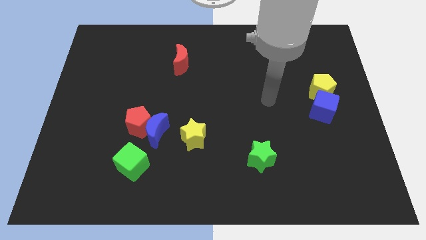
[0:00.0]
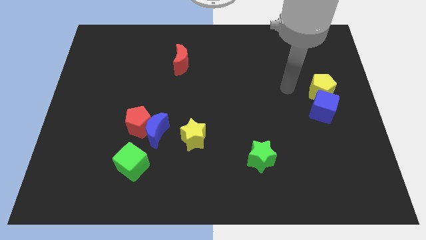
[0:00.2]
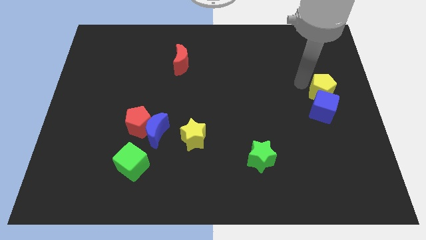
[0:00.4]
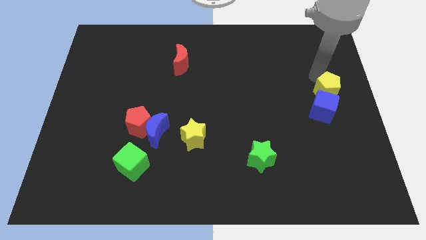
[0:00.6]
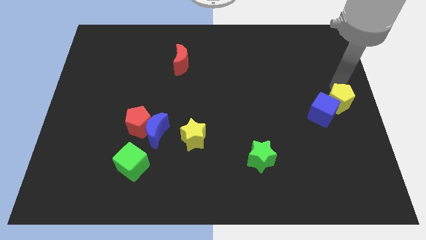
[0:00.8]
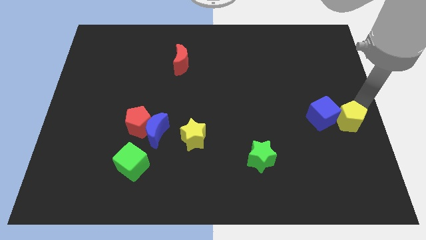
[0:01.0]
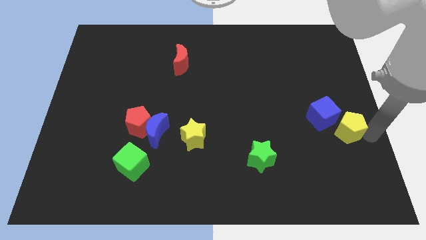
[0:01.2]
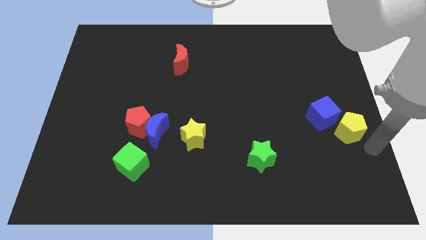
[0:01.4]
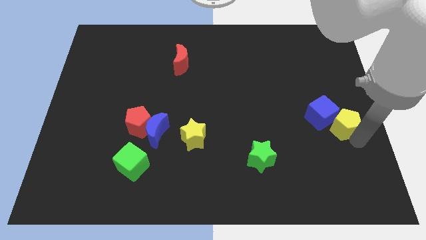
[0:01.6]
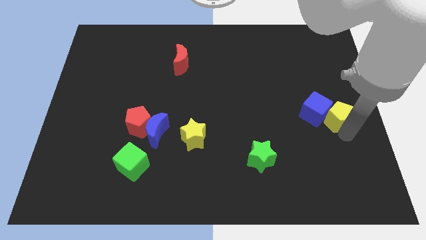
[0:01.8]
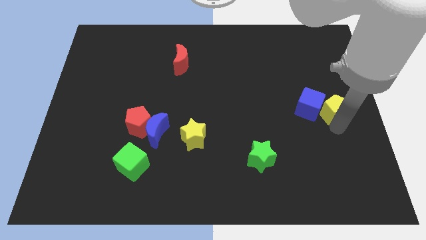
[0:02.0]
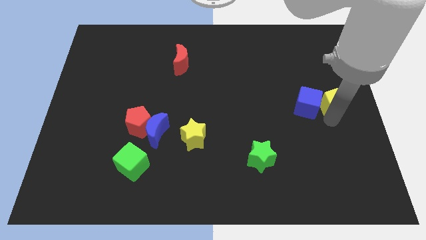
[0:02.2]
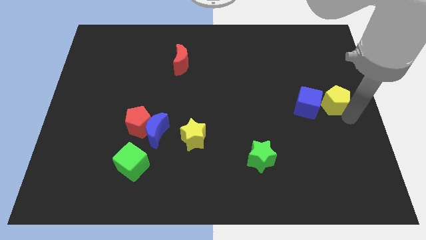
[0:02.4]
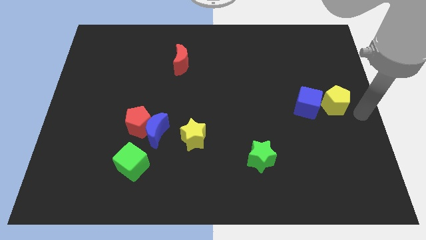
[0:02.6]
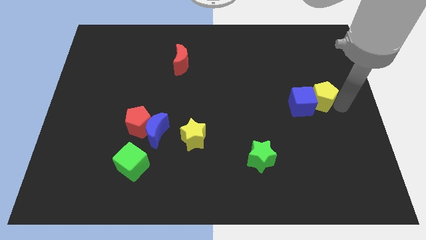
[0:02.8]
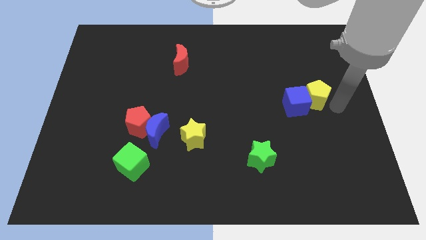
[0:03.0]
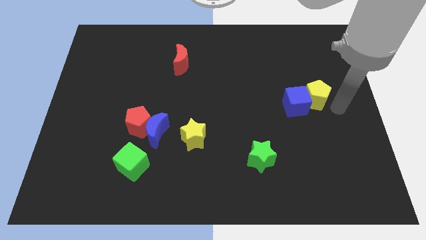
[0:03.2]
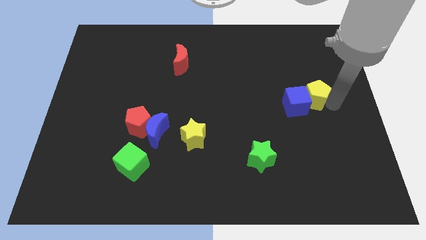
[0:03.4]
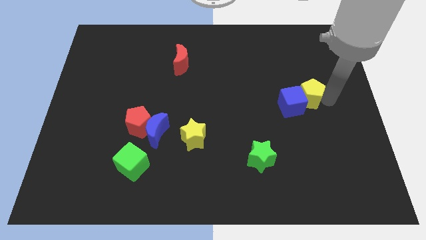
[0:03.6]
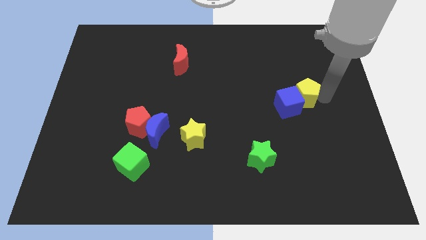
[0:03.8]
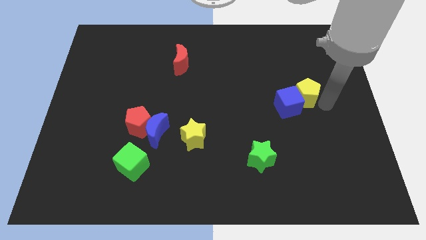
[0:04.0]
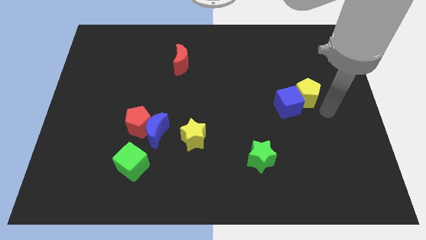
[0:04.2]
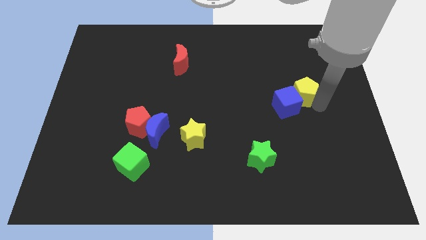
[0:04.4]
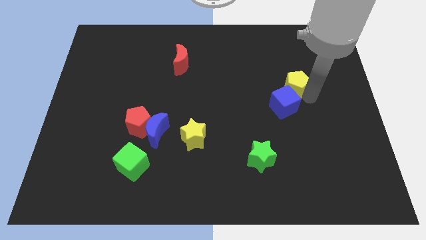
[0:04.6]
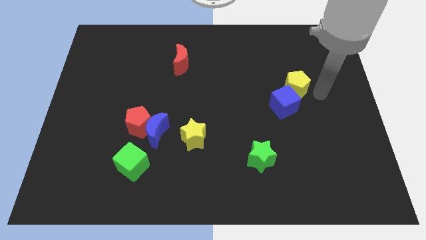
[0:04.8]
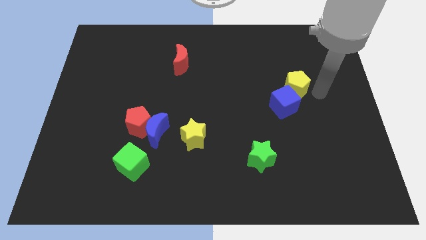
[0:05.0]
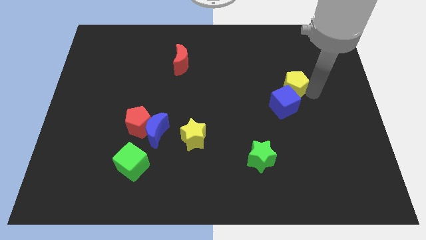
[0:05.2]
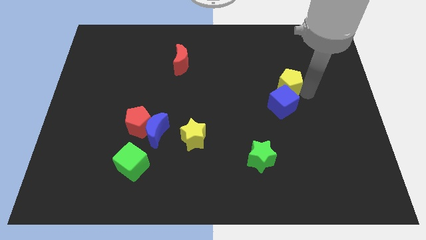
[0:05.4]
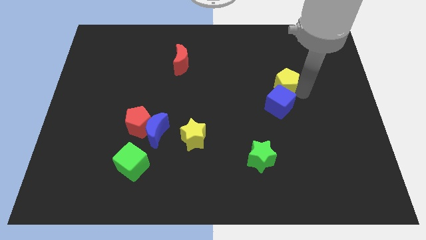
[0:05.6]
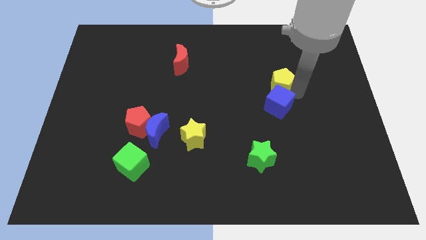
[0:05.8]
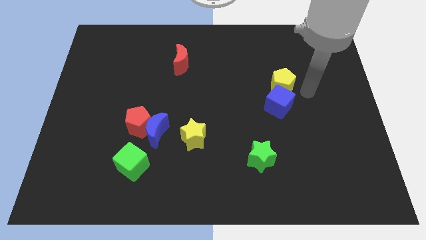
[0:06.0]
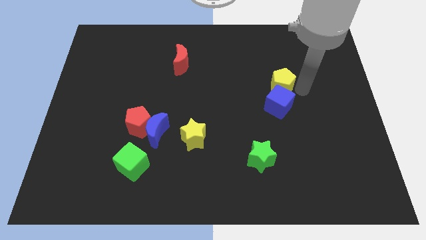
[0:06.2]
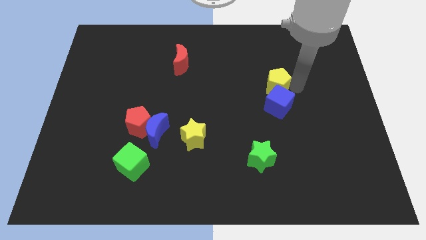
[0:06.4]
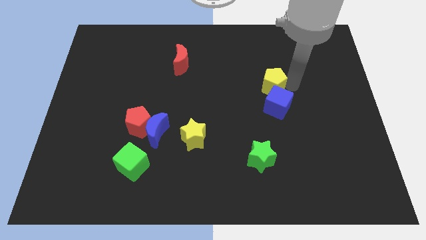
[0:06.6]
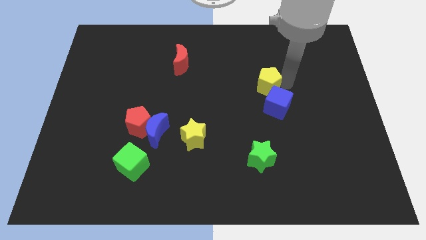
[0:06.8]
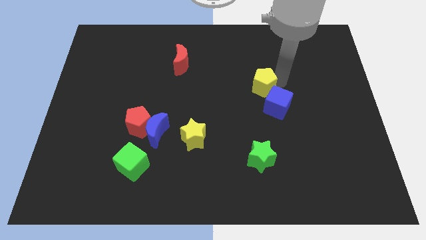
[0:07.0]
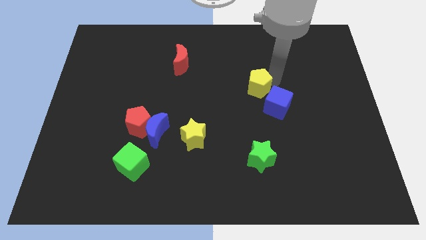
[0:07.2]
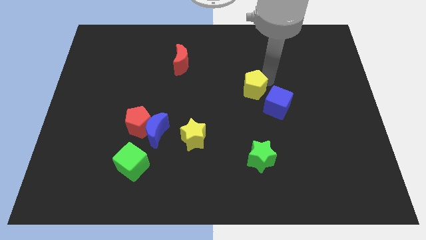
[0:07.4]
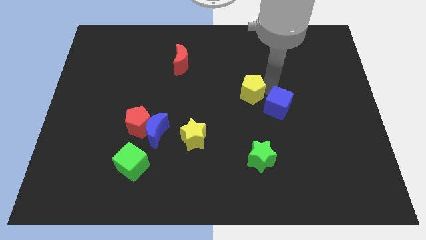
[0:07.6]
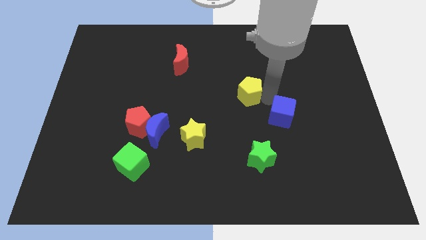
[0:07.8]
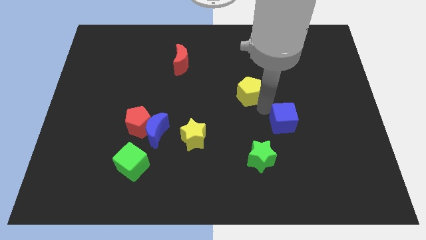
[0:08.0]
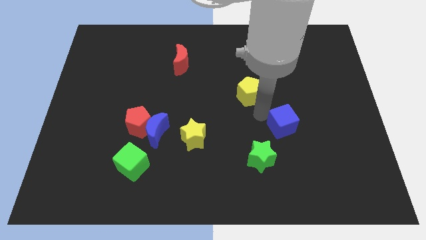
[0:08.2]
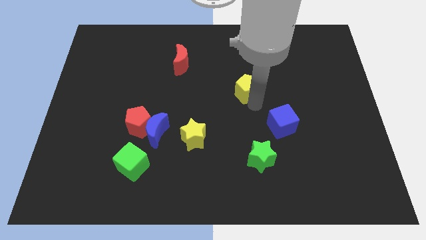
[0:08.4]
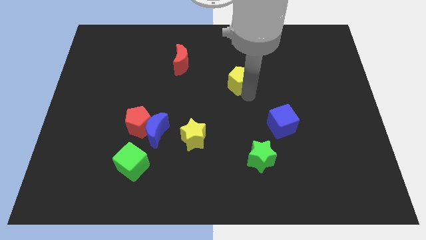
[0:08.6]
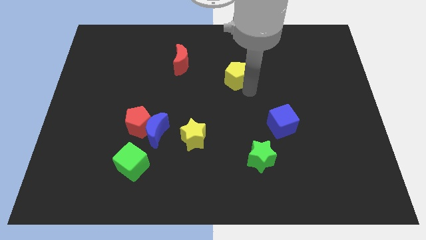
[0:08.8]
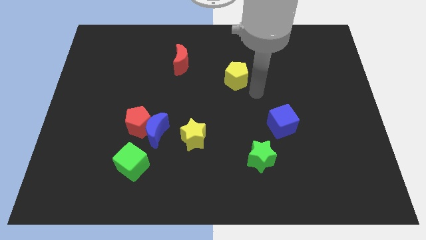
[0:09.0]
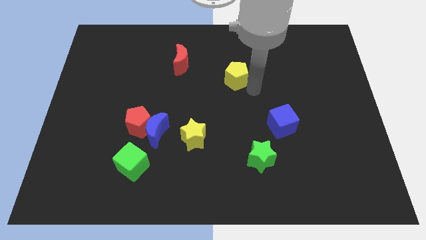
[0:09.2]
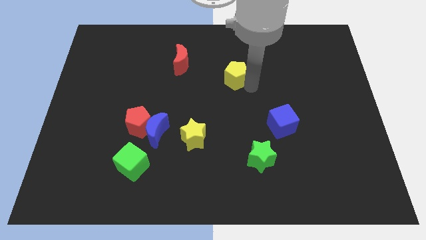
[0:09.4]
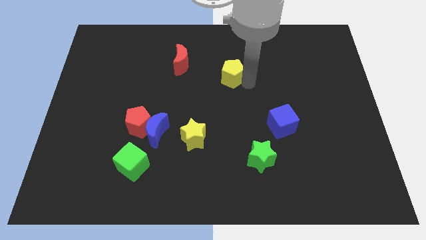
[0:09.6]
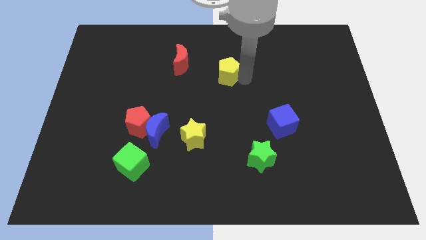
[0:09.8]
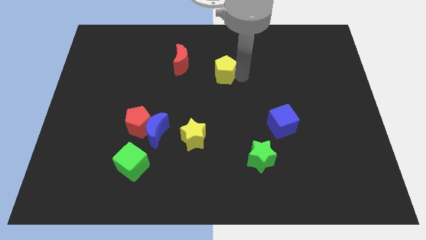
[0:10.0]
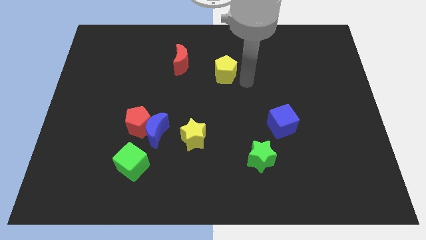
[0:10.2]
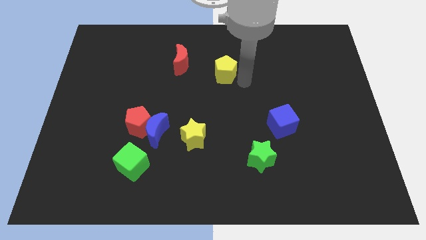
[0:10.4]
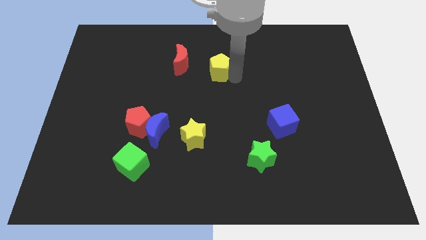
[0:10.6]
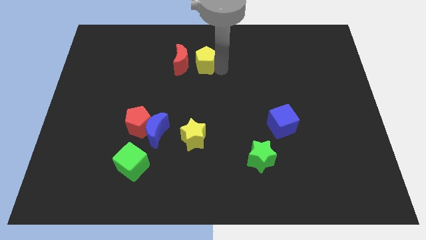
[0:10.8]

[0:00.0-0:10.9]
slide the yellow pentagon towards the red moon

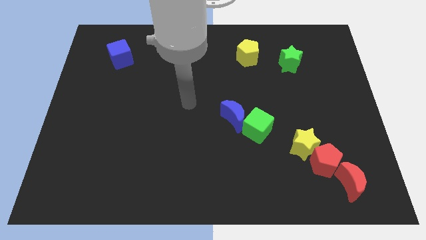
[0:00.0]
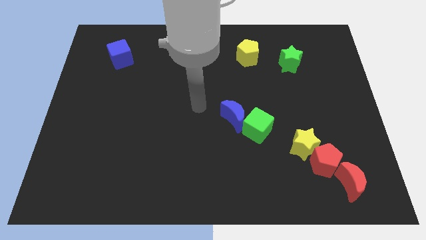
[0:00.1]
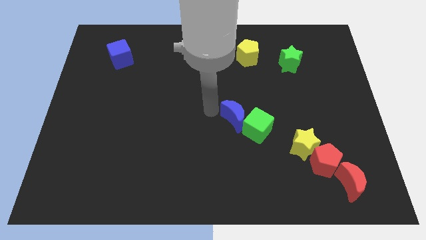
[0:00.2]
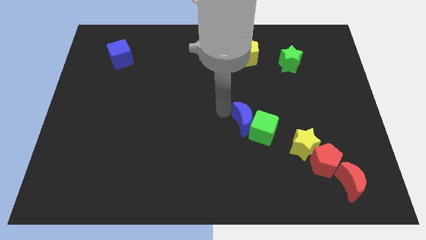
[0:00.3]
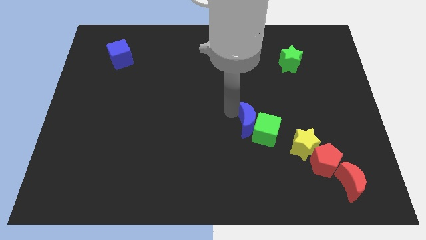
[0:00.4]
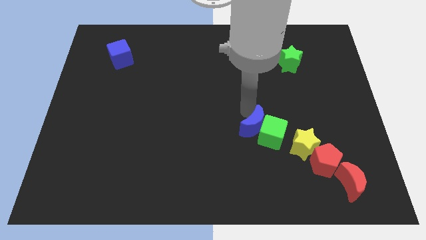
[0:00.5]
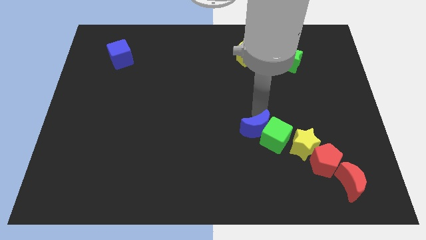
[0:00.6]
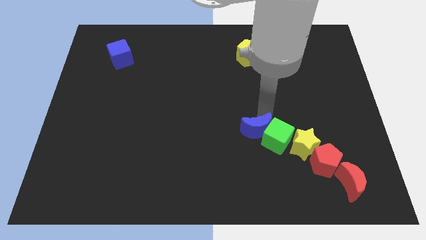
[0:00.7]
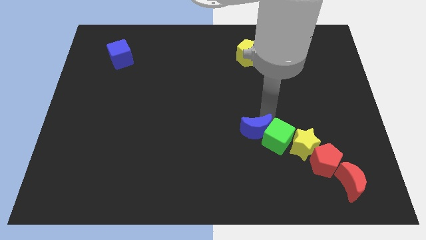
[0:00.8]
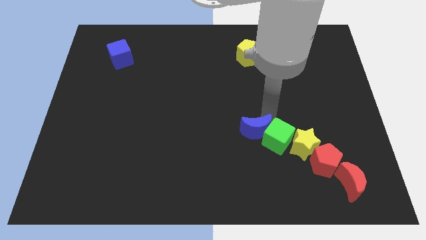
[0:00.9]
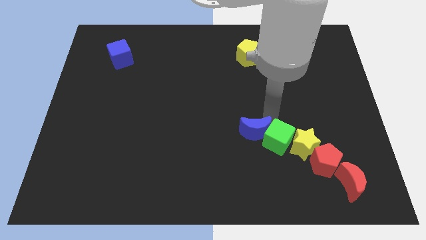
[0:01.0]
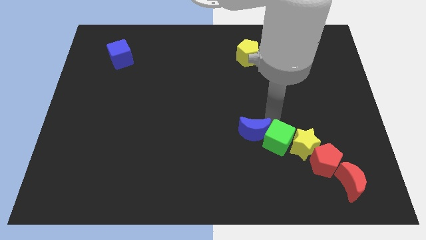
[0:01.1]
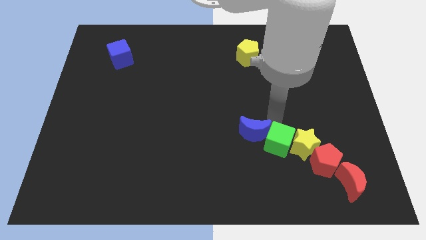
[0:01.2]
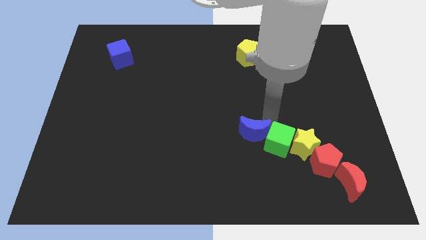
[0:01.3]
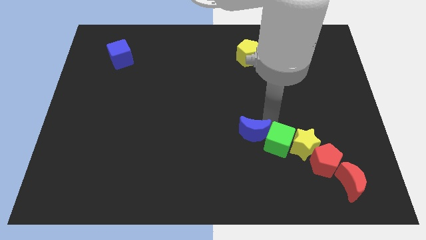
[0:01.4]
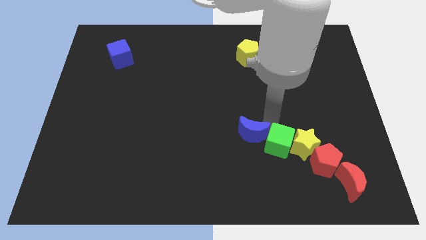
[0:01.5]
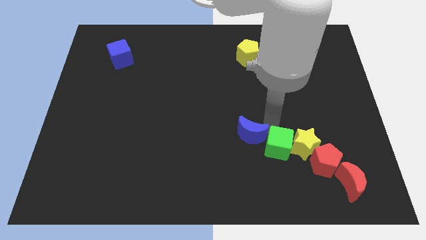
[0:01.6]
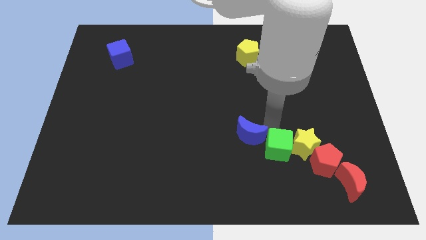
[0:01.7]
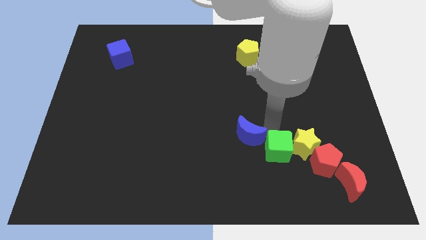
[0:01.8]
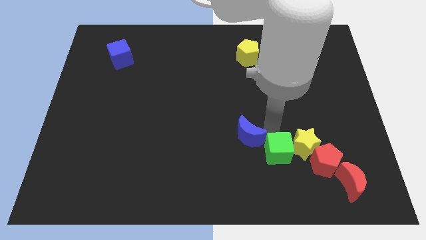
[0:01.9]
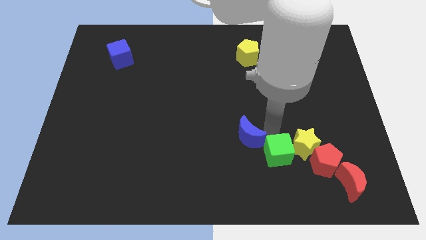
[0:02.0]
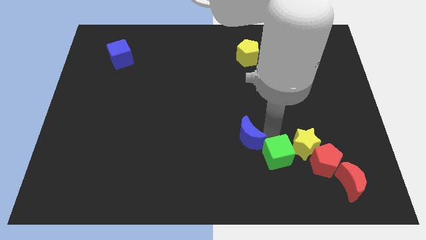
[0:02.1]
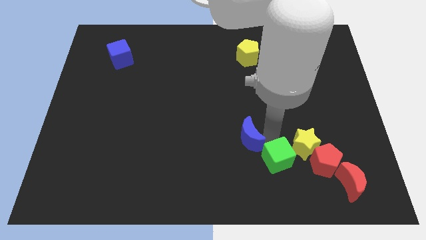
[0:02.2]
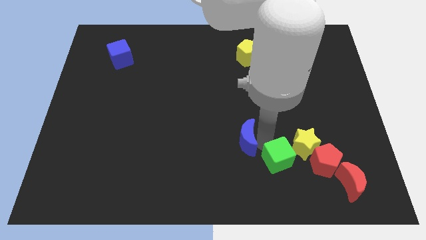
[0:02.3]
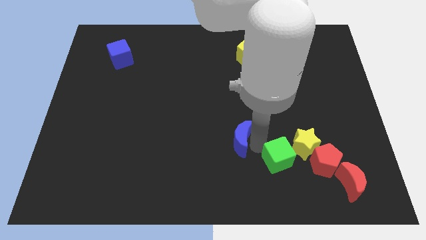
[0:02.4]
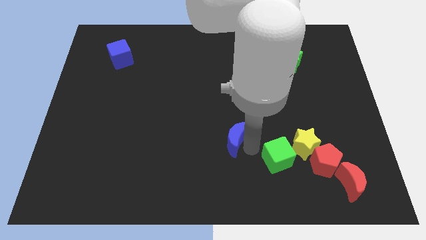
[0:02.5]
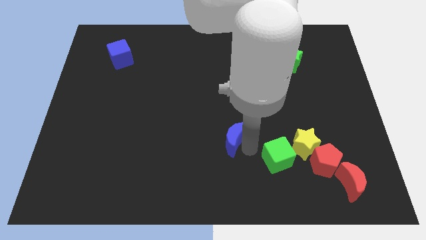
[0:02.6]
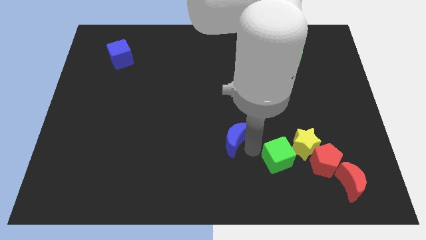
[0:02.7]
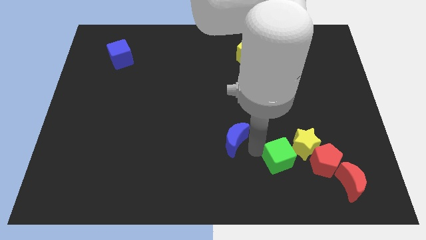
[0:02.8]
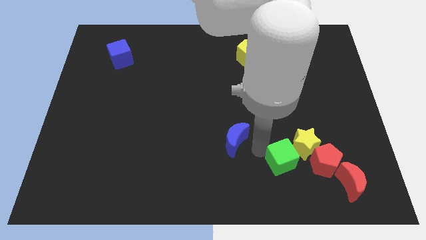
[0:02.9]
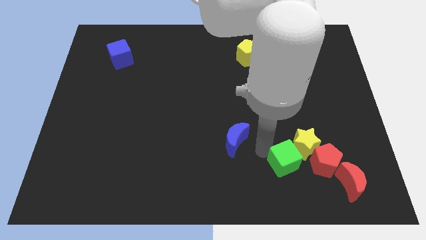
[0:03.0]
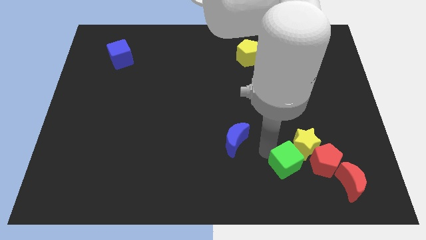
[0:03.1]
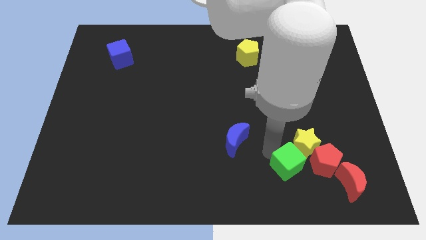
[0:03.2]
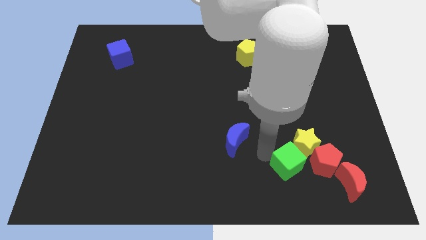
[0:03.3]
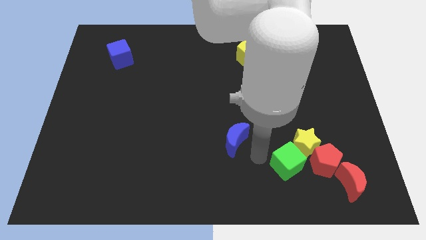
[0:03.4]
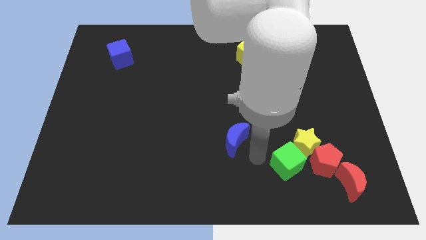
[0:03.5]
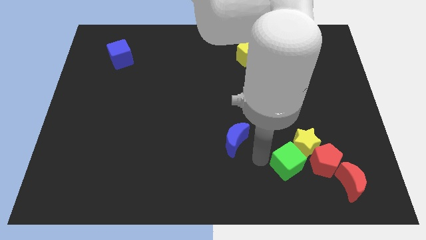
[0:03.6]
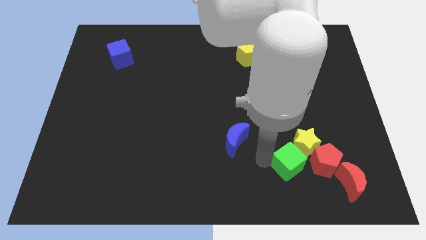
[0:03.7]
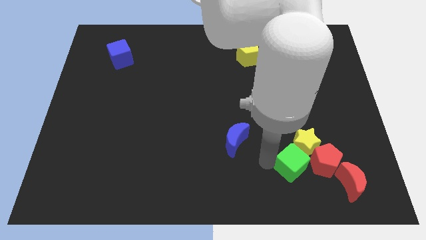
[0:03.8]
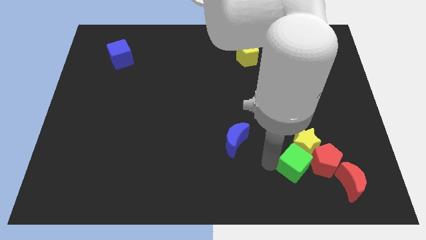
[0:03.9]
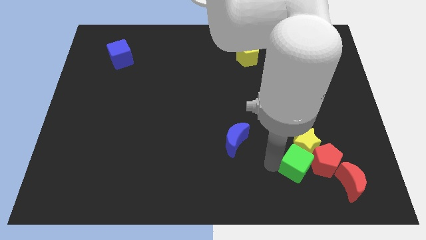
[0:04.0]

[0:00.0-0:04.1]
move the green cube towards the red pentagon
